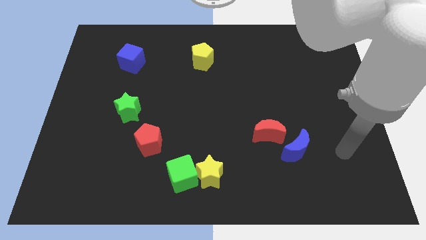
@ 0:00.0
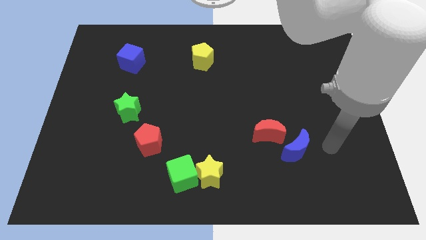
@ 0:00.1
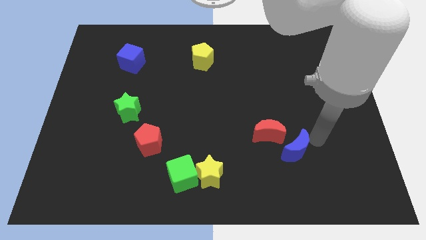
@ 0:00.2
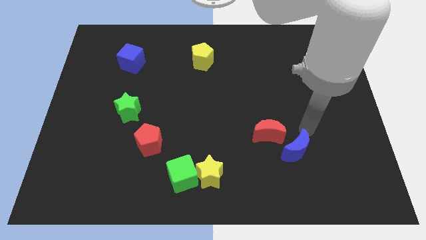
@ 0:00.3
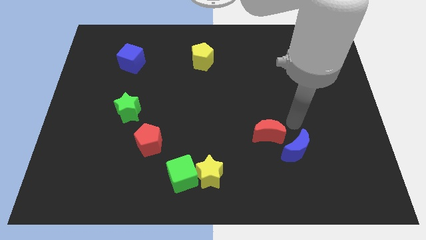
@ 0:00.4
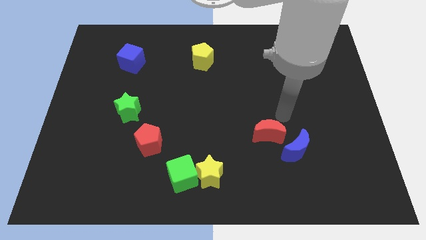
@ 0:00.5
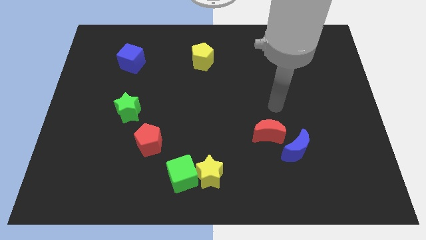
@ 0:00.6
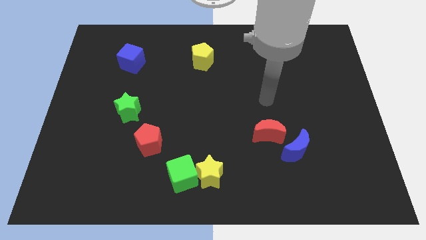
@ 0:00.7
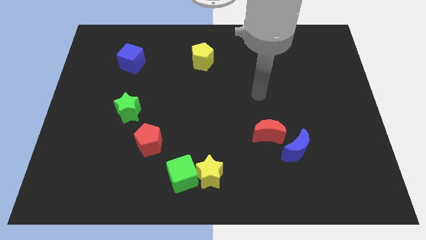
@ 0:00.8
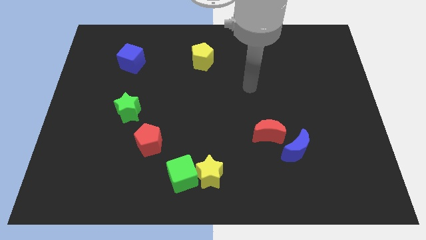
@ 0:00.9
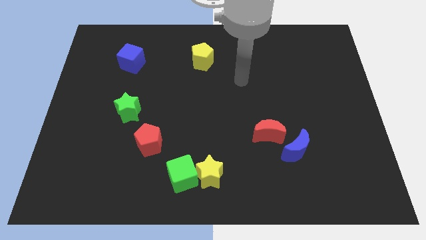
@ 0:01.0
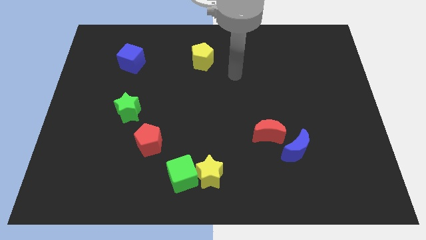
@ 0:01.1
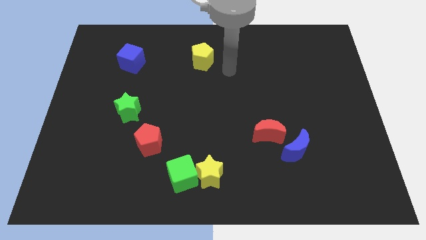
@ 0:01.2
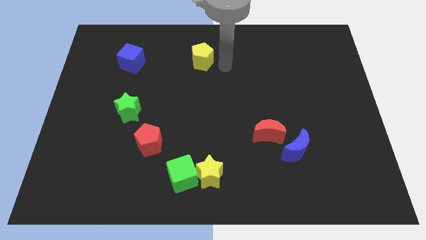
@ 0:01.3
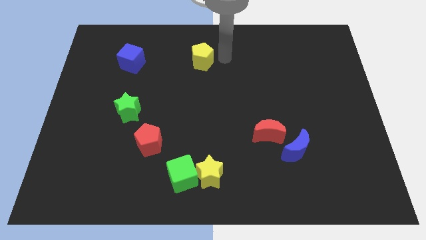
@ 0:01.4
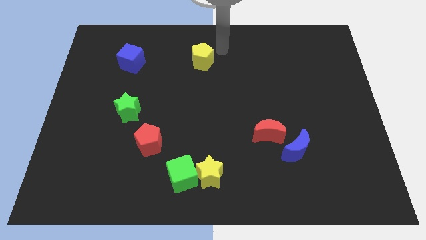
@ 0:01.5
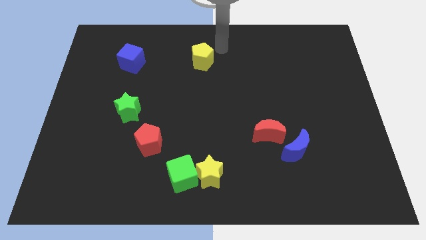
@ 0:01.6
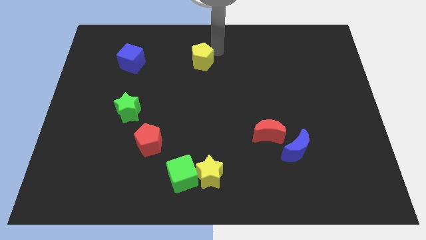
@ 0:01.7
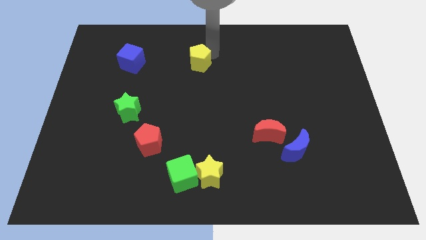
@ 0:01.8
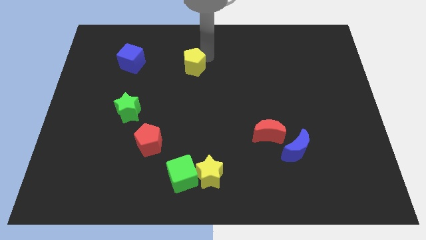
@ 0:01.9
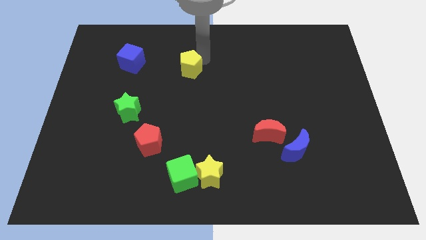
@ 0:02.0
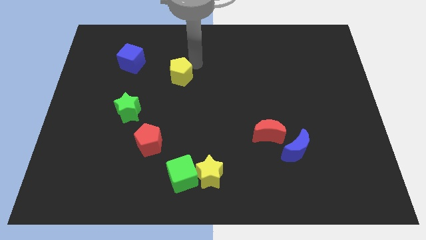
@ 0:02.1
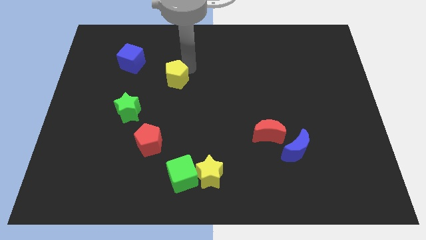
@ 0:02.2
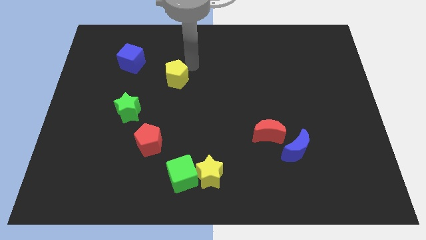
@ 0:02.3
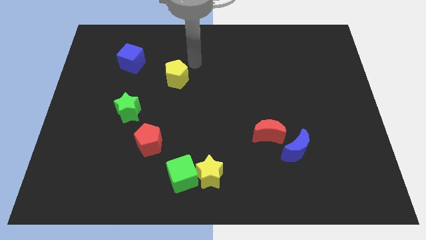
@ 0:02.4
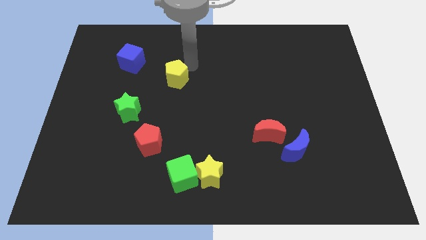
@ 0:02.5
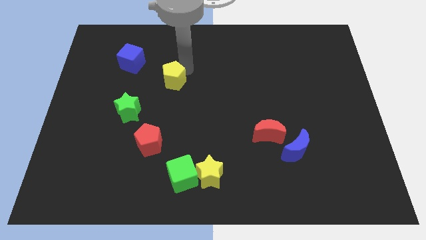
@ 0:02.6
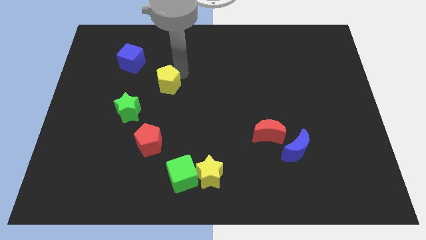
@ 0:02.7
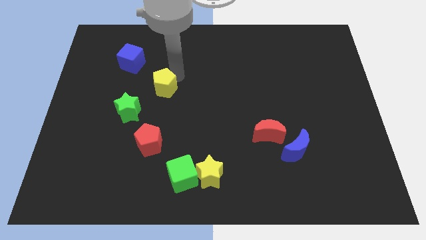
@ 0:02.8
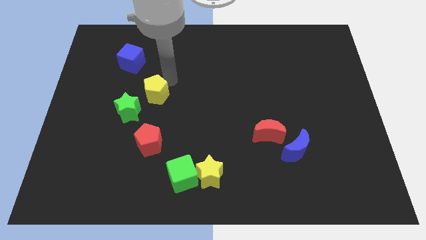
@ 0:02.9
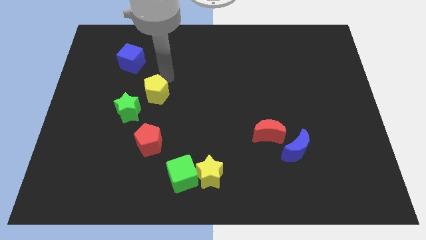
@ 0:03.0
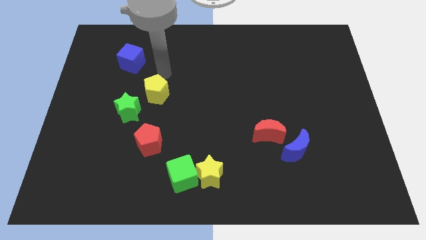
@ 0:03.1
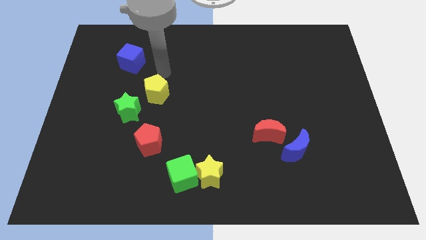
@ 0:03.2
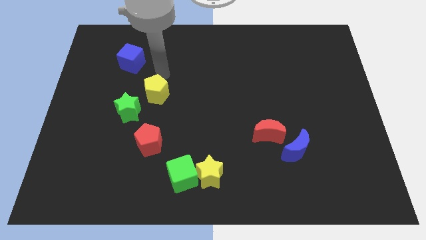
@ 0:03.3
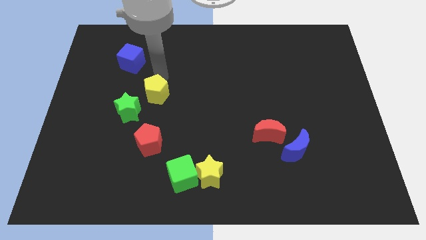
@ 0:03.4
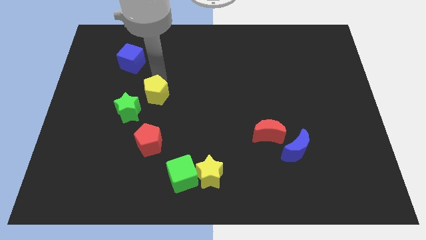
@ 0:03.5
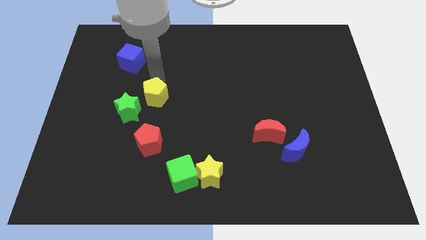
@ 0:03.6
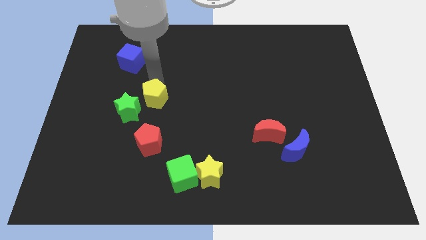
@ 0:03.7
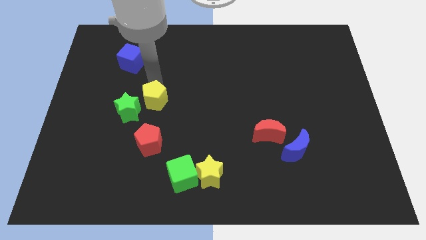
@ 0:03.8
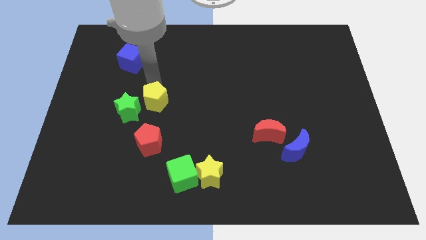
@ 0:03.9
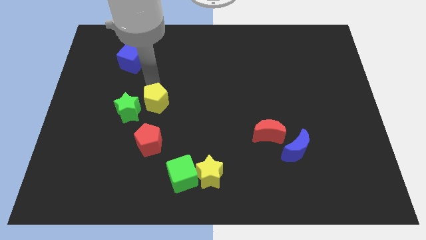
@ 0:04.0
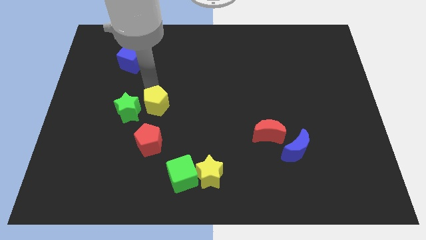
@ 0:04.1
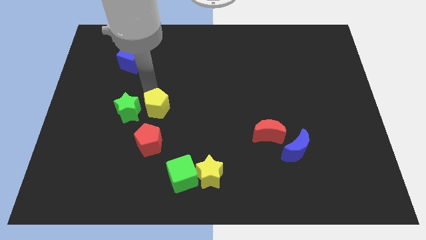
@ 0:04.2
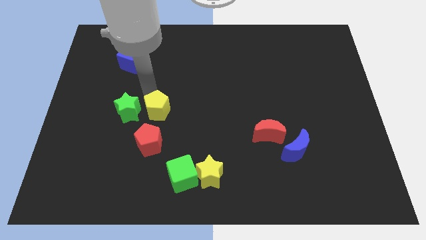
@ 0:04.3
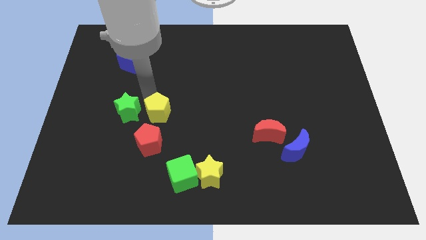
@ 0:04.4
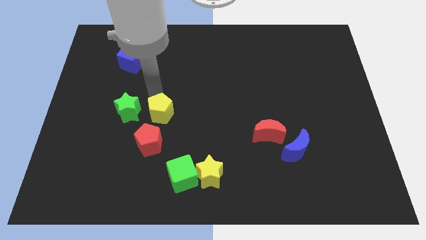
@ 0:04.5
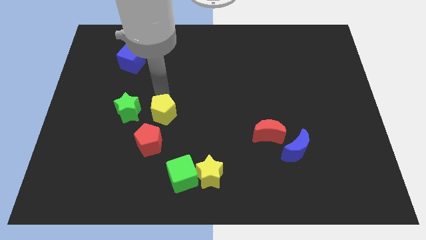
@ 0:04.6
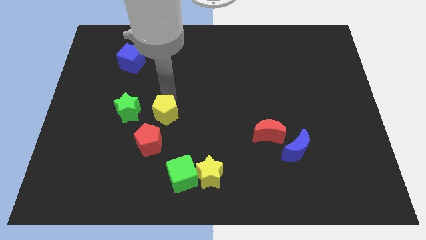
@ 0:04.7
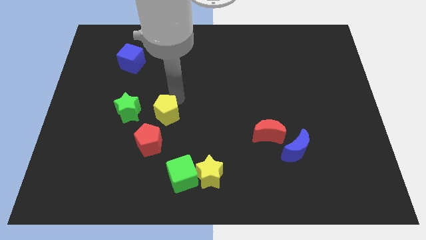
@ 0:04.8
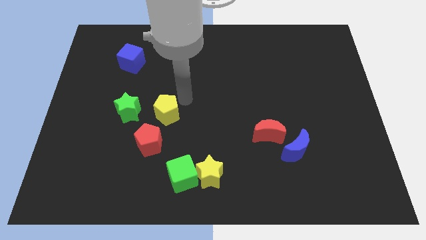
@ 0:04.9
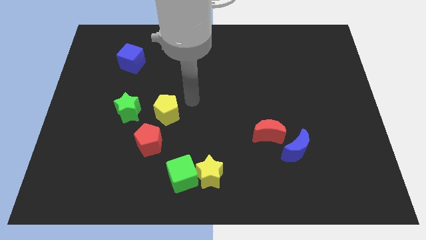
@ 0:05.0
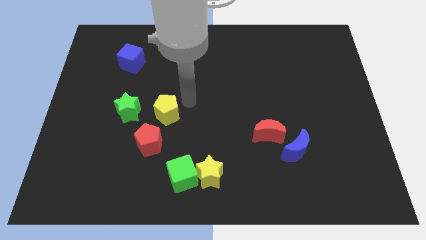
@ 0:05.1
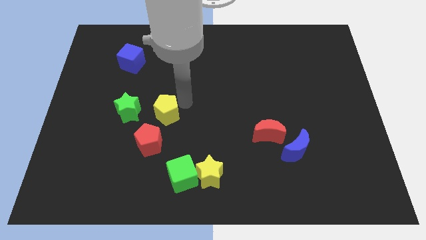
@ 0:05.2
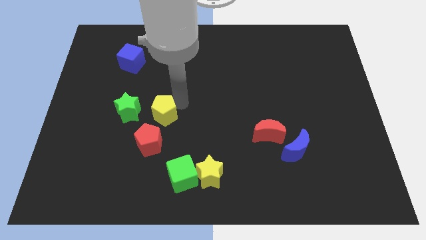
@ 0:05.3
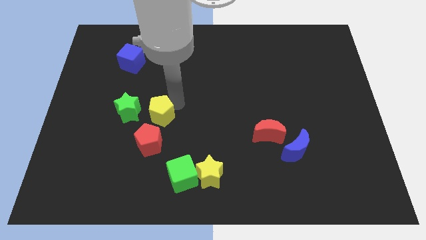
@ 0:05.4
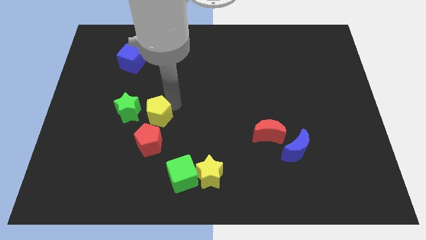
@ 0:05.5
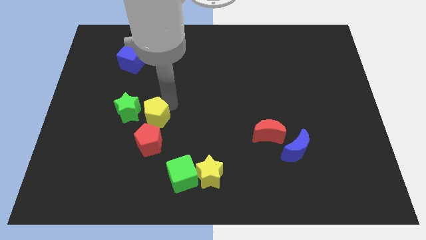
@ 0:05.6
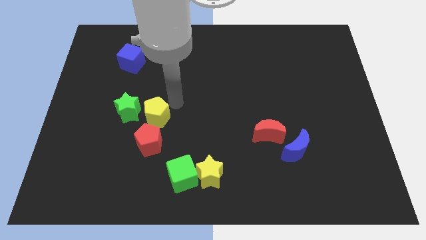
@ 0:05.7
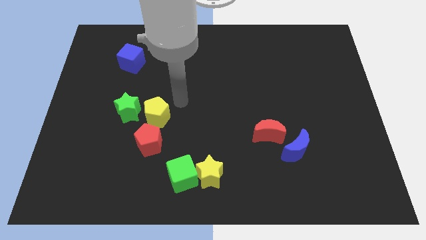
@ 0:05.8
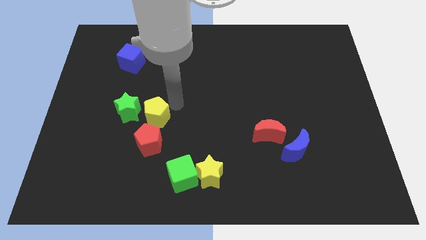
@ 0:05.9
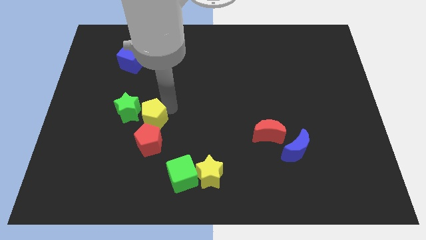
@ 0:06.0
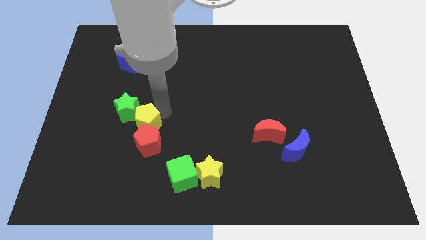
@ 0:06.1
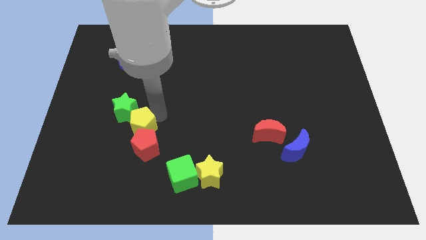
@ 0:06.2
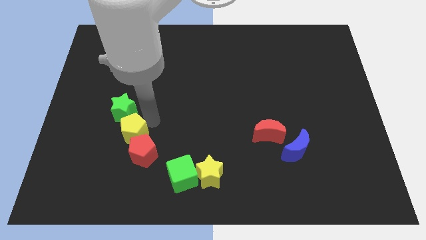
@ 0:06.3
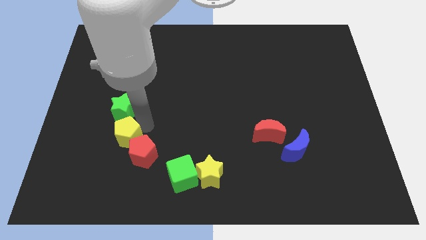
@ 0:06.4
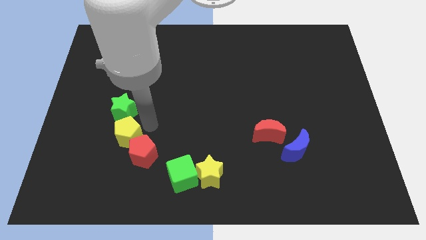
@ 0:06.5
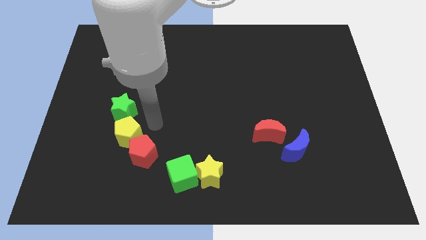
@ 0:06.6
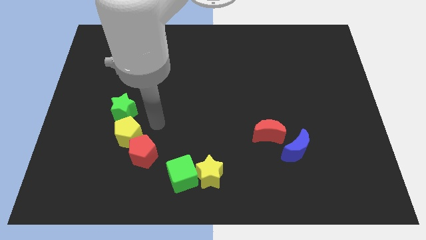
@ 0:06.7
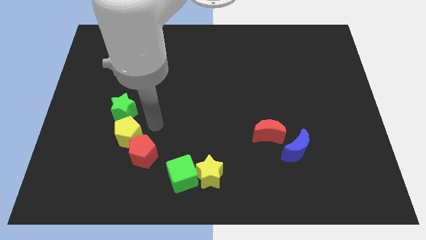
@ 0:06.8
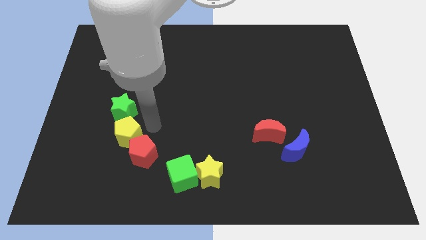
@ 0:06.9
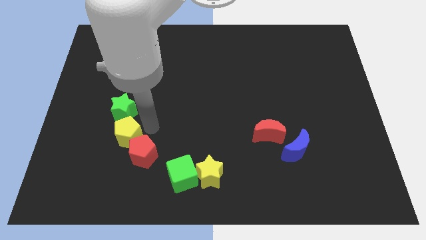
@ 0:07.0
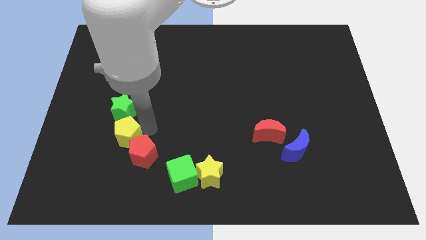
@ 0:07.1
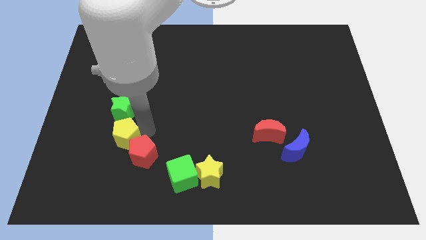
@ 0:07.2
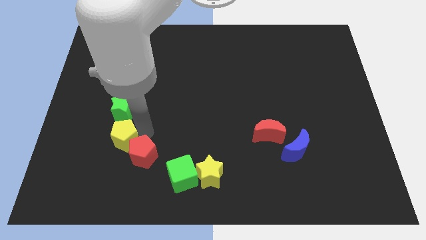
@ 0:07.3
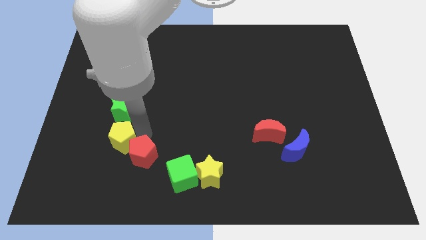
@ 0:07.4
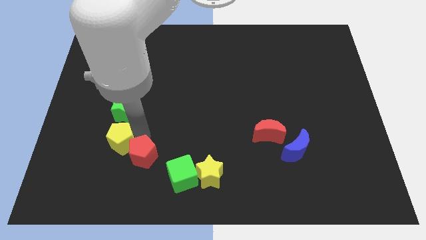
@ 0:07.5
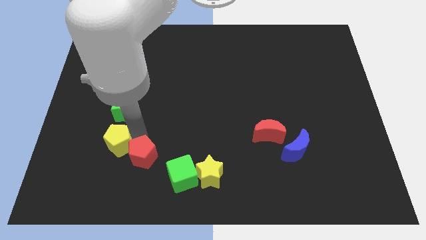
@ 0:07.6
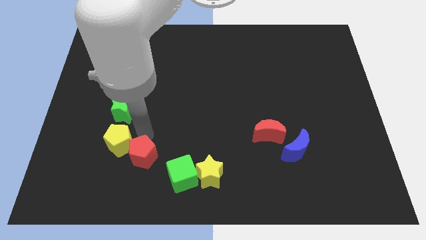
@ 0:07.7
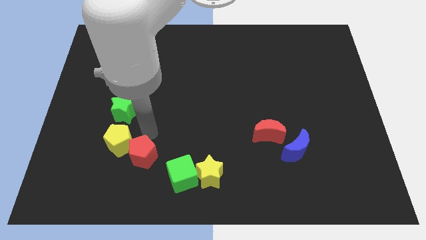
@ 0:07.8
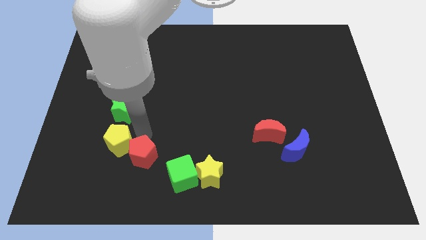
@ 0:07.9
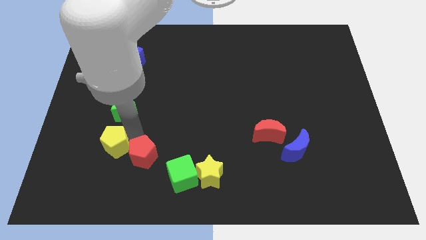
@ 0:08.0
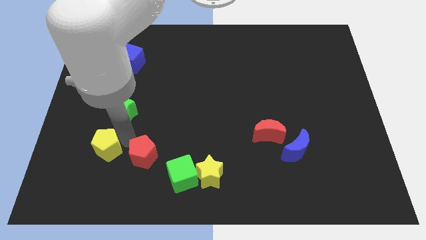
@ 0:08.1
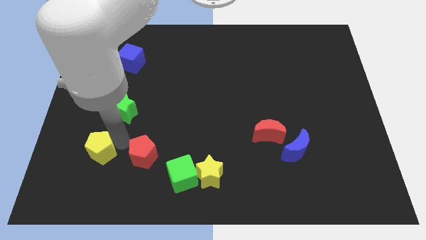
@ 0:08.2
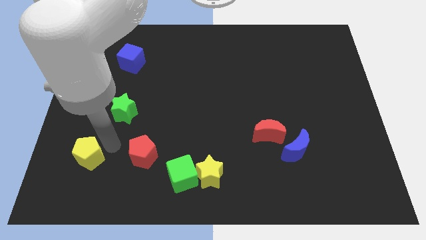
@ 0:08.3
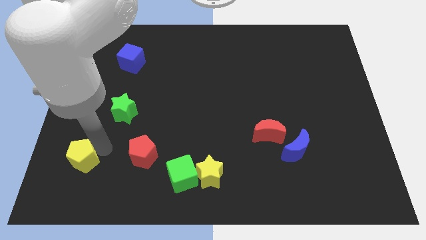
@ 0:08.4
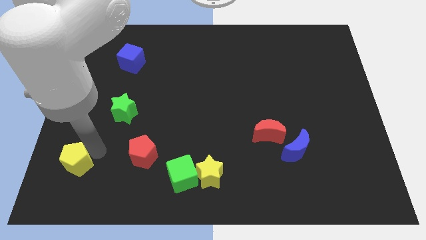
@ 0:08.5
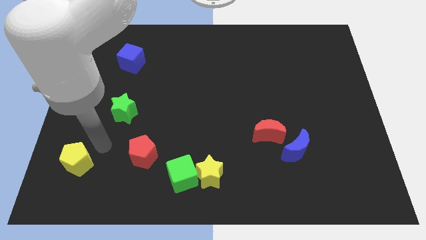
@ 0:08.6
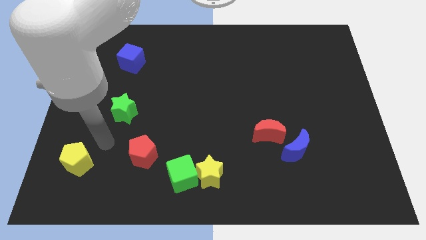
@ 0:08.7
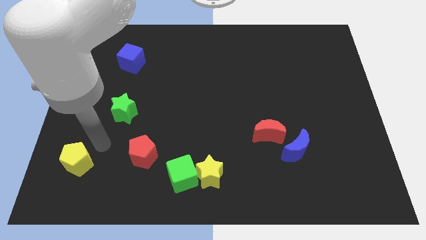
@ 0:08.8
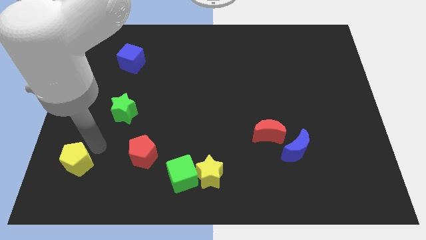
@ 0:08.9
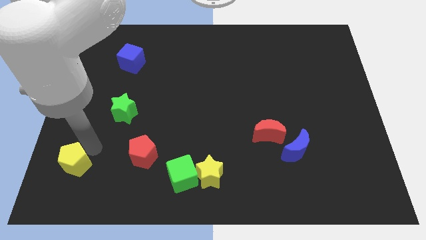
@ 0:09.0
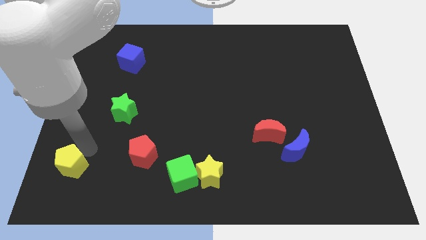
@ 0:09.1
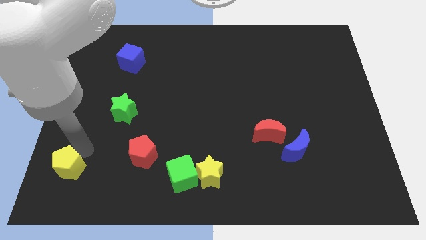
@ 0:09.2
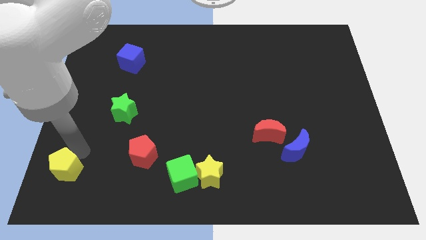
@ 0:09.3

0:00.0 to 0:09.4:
put the yellow pentagon to the lower left corner
